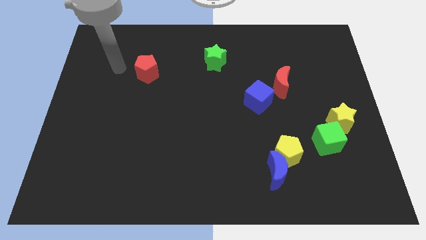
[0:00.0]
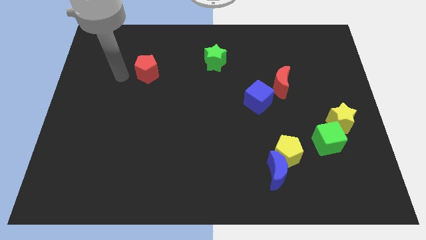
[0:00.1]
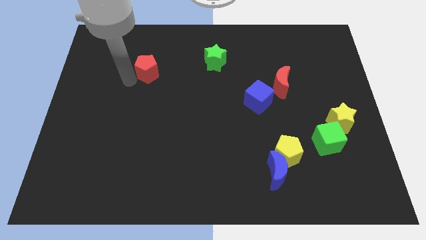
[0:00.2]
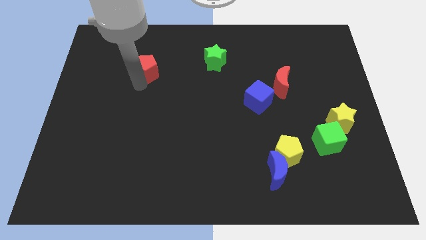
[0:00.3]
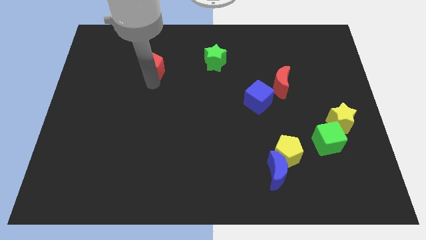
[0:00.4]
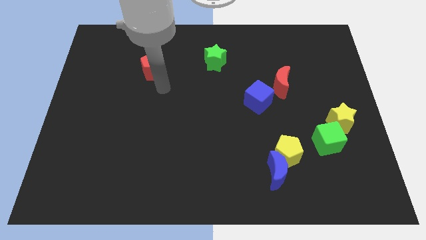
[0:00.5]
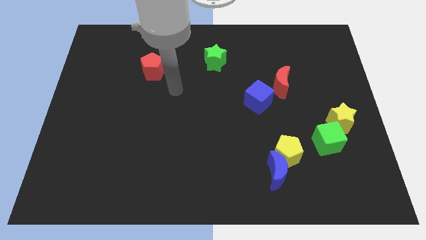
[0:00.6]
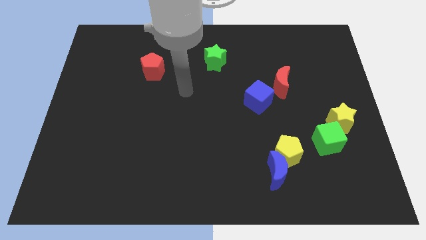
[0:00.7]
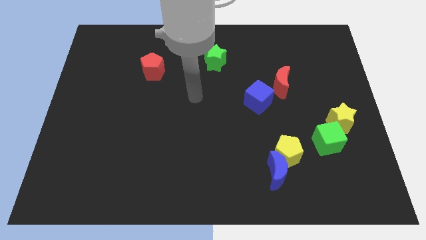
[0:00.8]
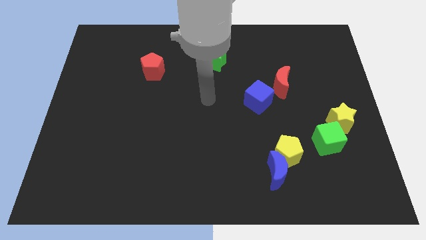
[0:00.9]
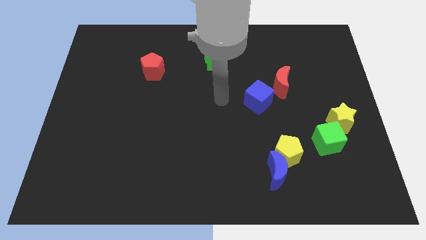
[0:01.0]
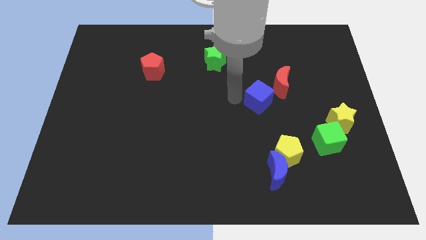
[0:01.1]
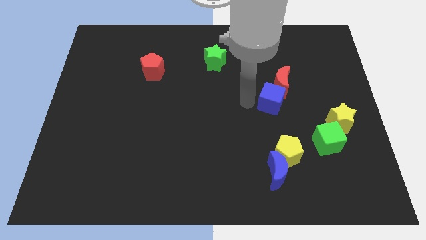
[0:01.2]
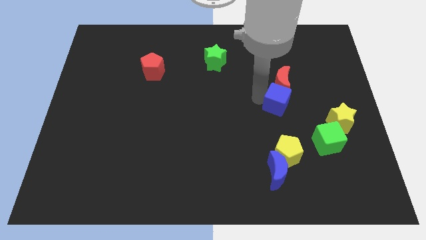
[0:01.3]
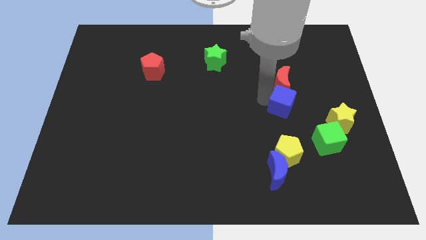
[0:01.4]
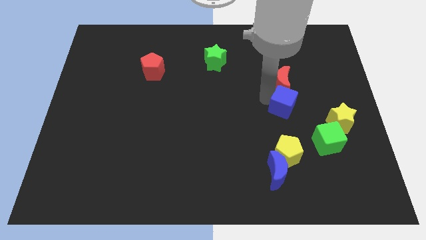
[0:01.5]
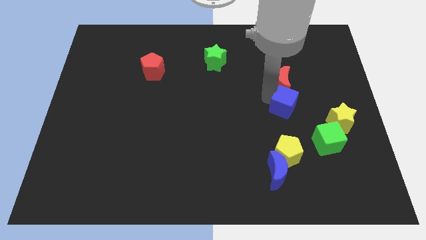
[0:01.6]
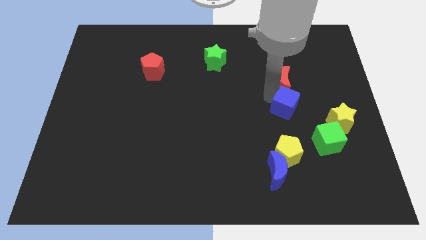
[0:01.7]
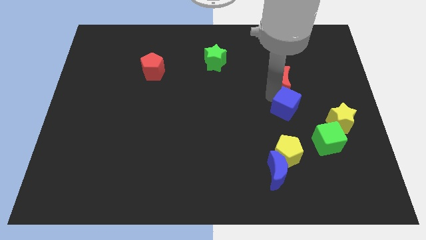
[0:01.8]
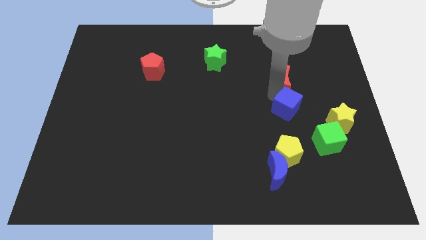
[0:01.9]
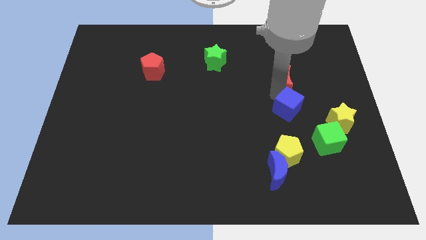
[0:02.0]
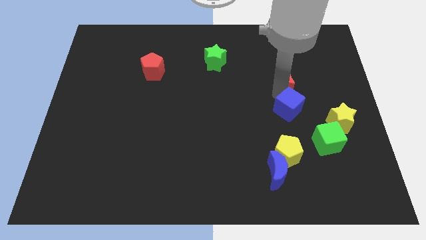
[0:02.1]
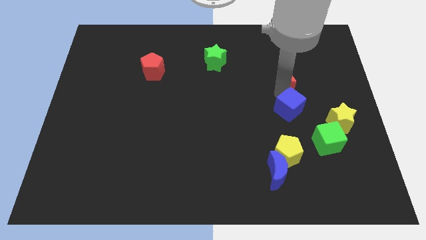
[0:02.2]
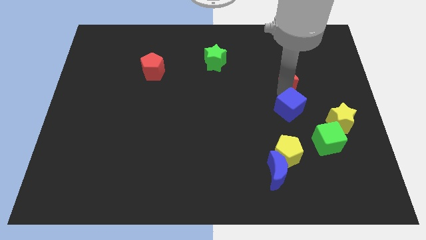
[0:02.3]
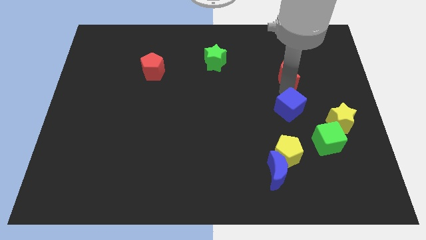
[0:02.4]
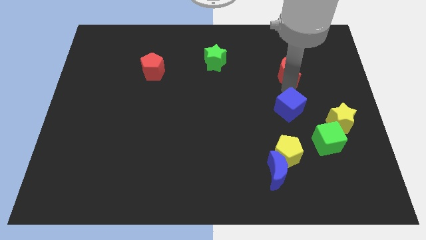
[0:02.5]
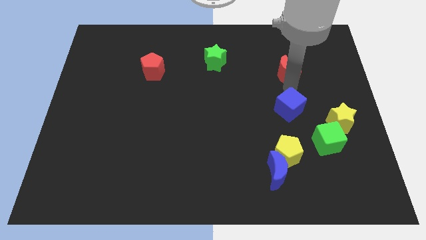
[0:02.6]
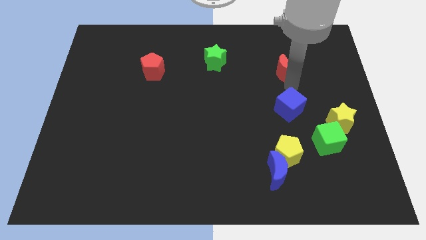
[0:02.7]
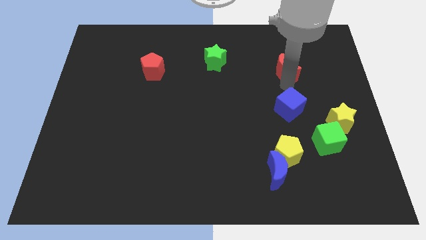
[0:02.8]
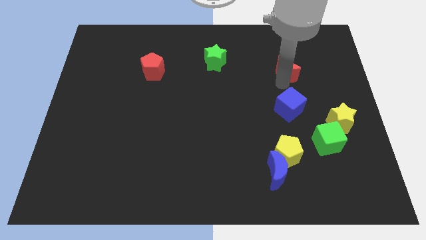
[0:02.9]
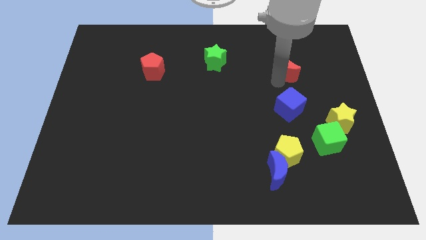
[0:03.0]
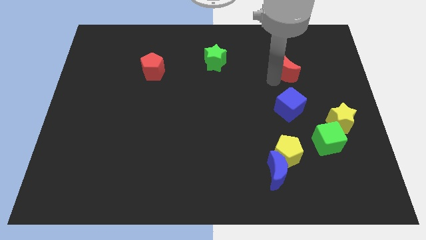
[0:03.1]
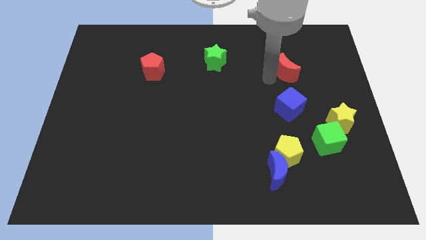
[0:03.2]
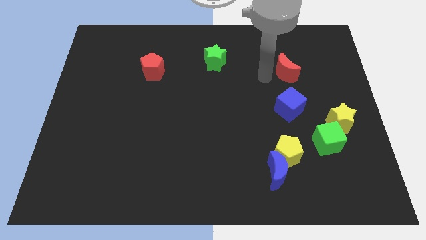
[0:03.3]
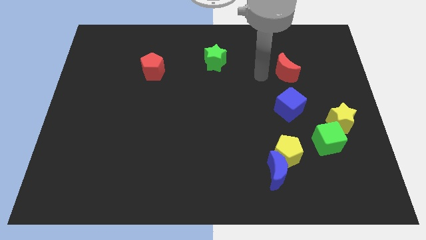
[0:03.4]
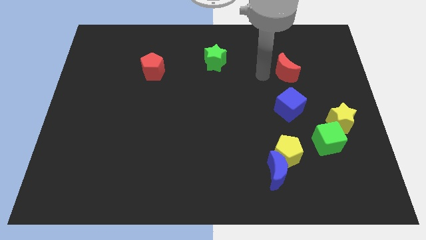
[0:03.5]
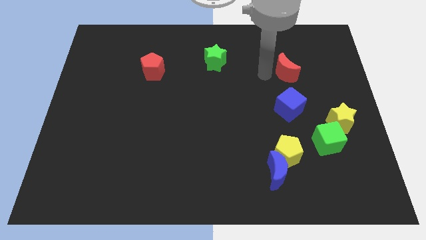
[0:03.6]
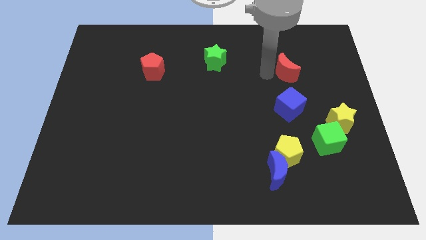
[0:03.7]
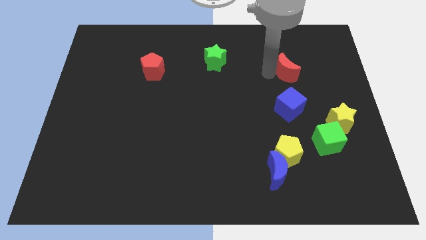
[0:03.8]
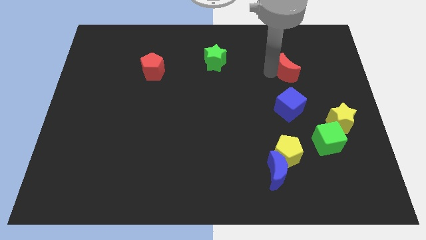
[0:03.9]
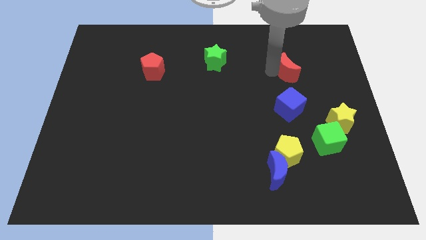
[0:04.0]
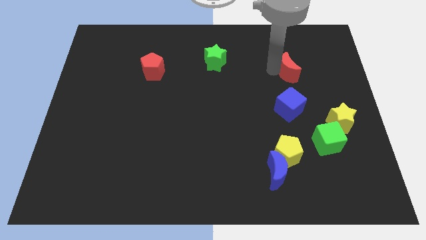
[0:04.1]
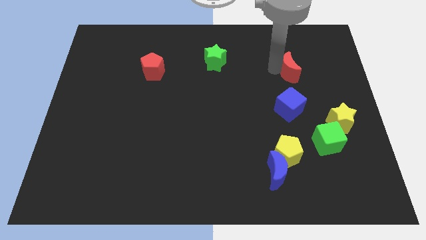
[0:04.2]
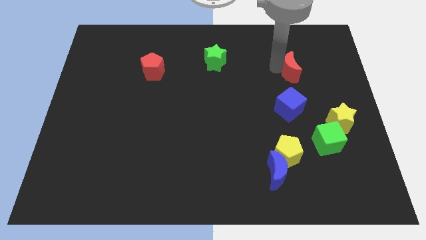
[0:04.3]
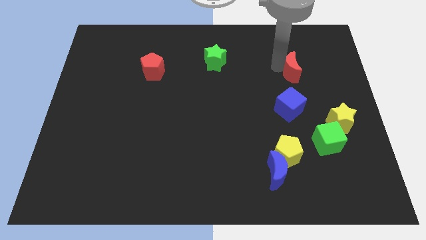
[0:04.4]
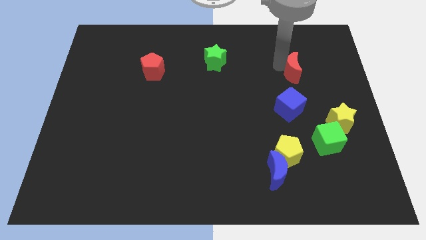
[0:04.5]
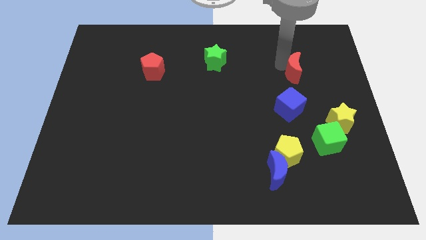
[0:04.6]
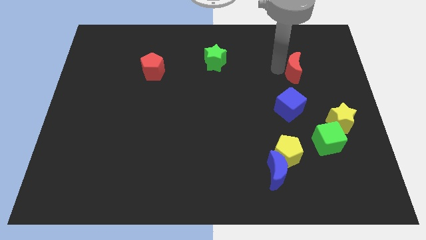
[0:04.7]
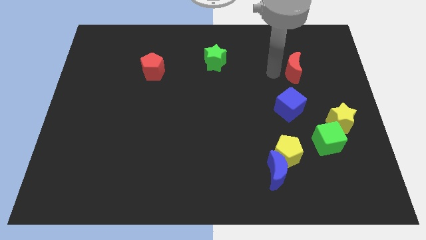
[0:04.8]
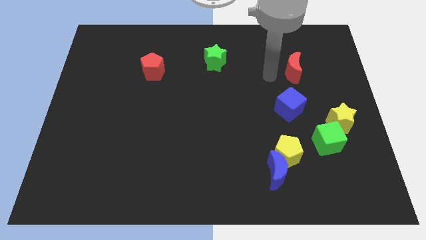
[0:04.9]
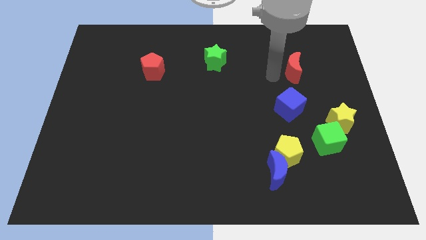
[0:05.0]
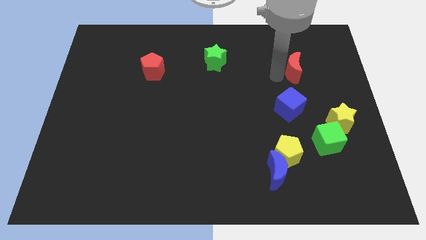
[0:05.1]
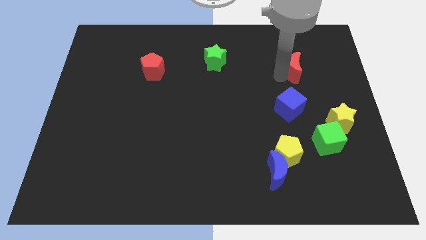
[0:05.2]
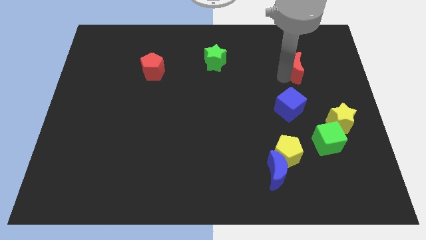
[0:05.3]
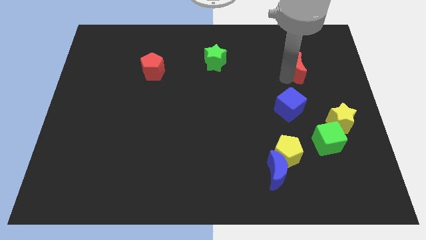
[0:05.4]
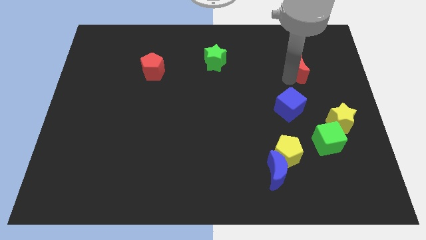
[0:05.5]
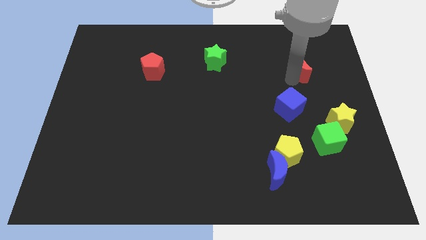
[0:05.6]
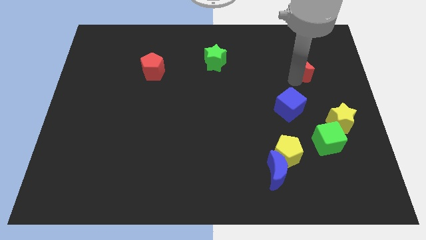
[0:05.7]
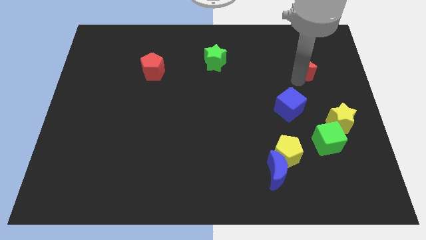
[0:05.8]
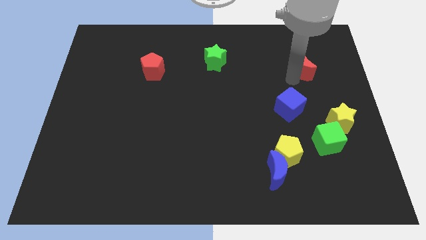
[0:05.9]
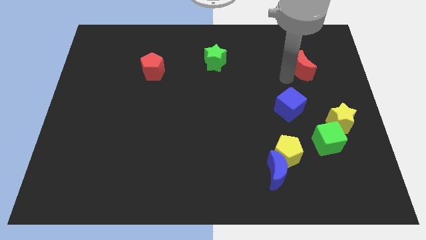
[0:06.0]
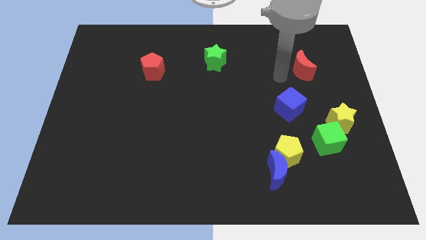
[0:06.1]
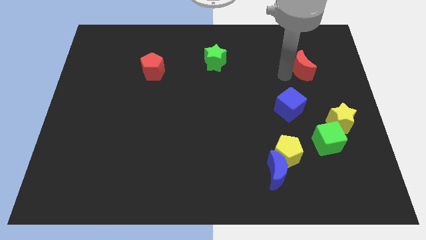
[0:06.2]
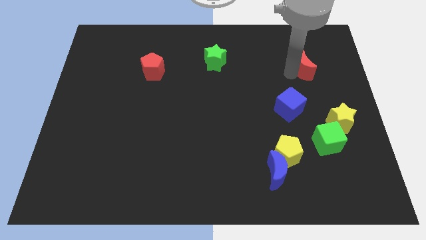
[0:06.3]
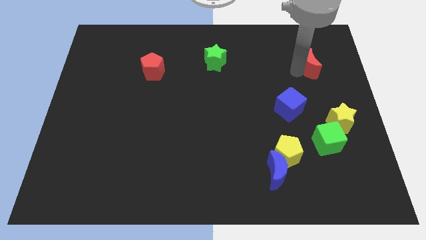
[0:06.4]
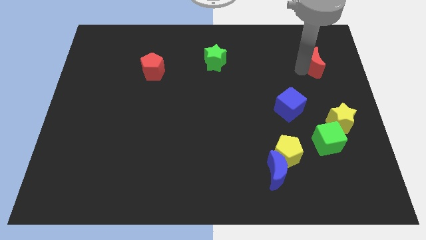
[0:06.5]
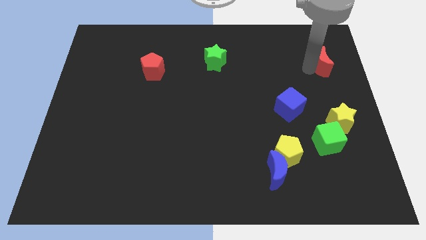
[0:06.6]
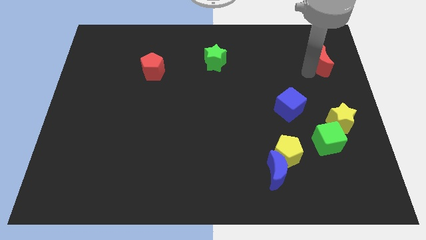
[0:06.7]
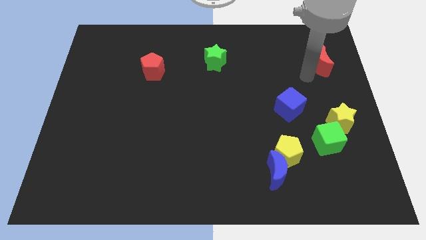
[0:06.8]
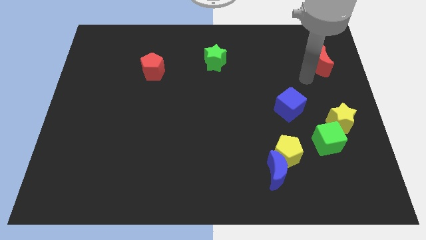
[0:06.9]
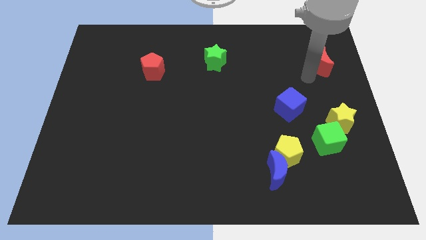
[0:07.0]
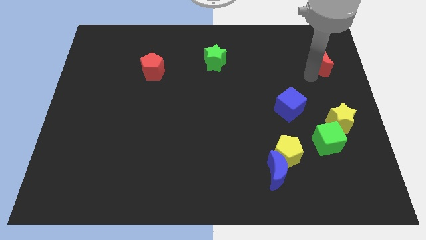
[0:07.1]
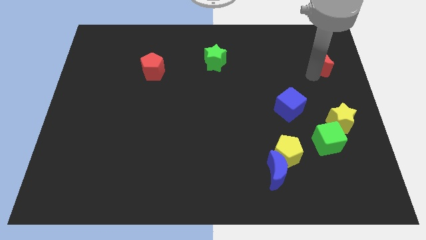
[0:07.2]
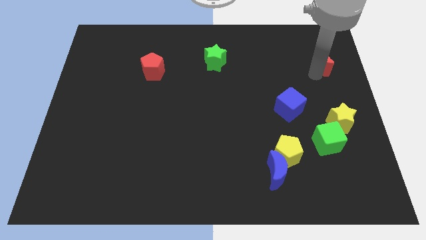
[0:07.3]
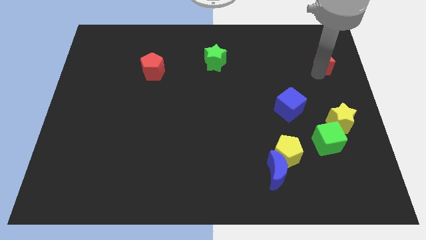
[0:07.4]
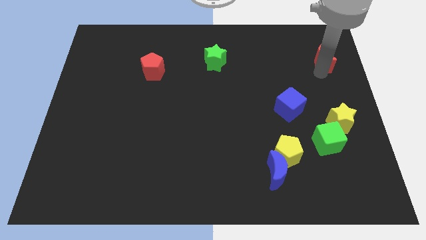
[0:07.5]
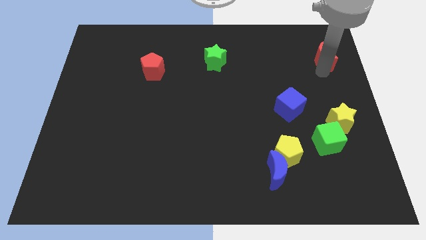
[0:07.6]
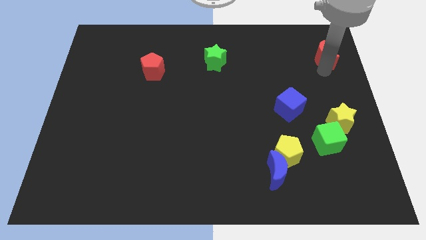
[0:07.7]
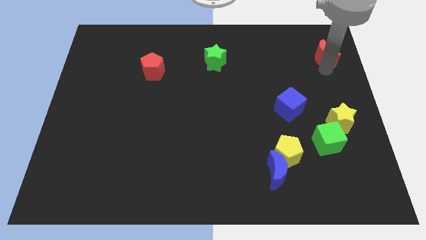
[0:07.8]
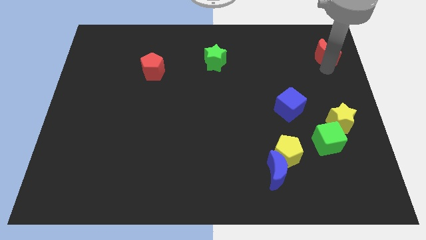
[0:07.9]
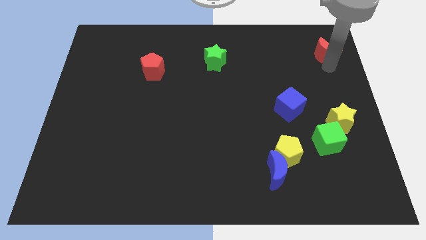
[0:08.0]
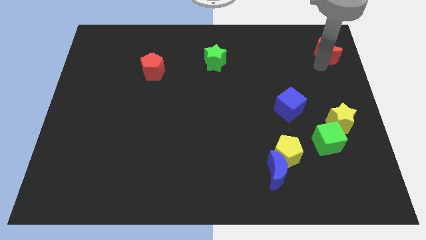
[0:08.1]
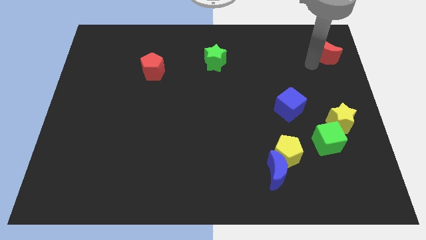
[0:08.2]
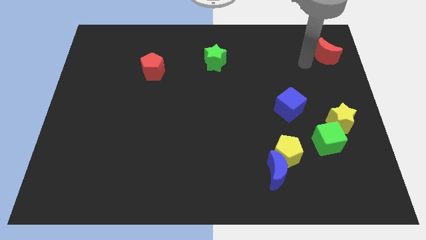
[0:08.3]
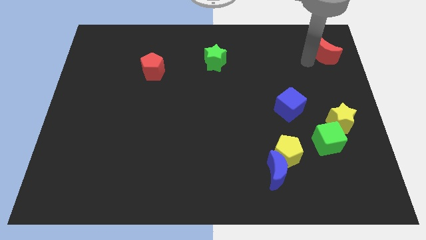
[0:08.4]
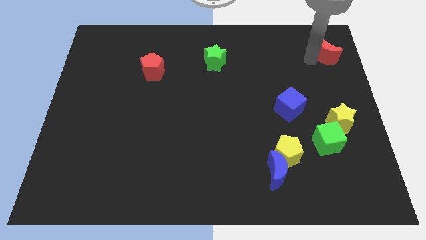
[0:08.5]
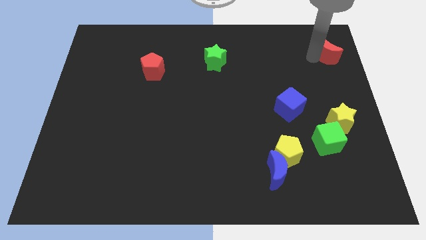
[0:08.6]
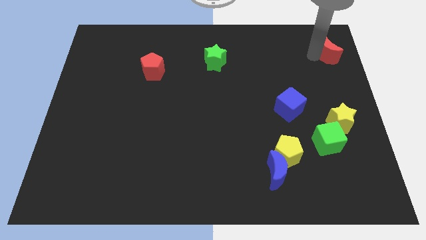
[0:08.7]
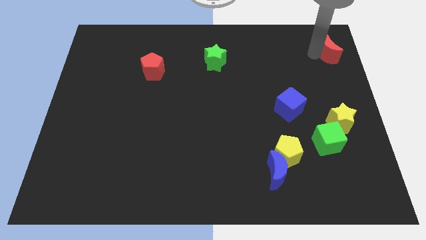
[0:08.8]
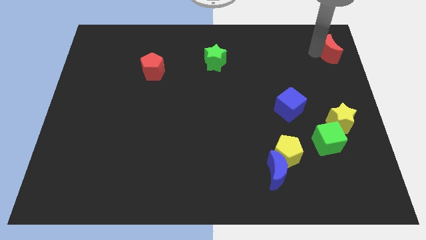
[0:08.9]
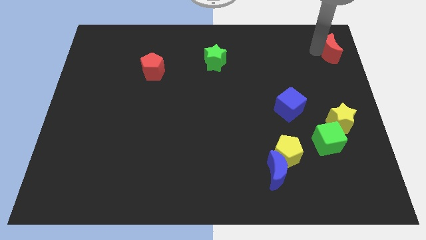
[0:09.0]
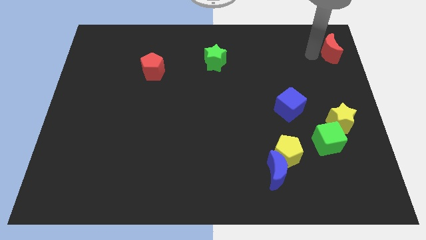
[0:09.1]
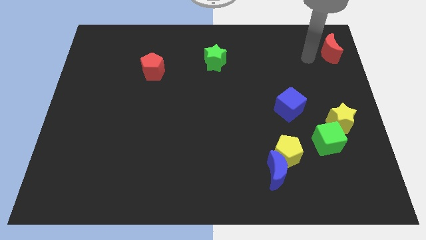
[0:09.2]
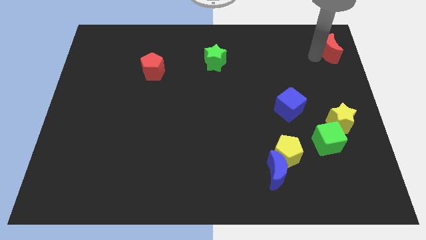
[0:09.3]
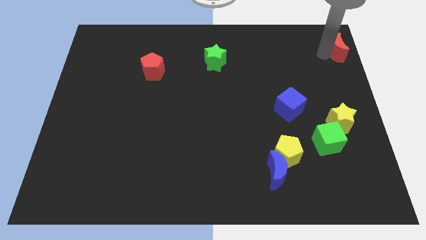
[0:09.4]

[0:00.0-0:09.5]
push the red moon to the top right corner
